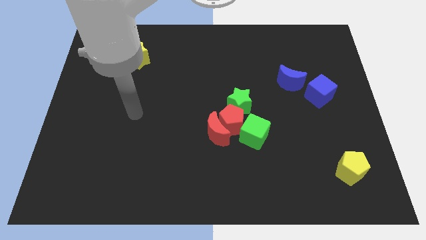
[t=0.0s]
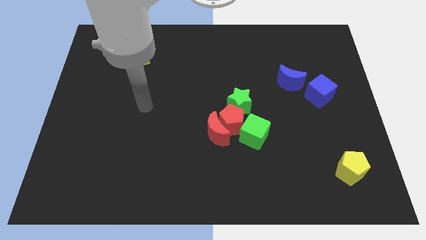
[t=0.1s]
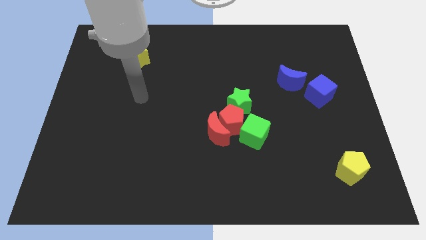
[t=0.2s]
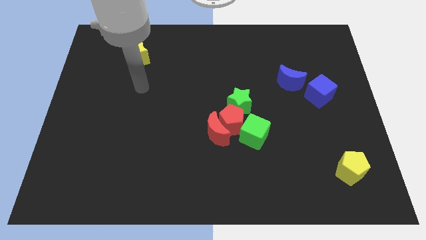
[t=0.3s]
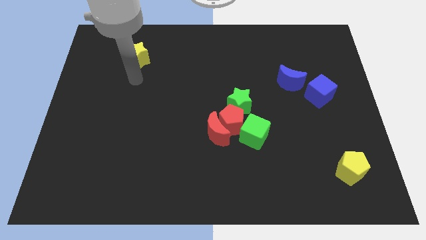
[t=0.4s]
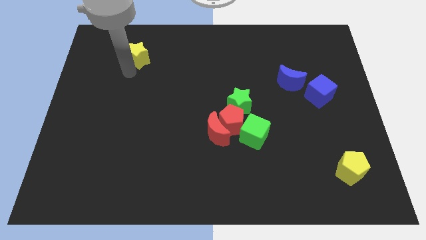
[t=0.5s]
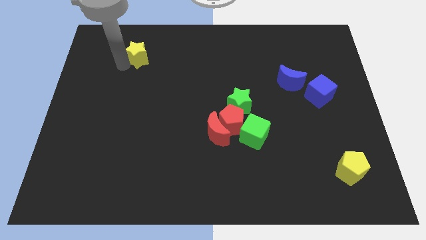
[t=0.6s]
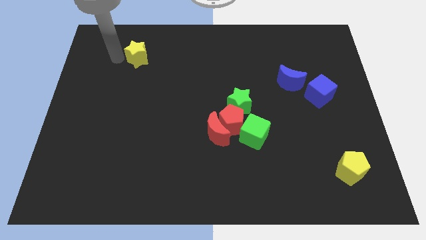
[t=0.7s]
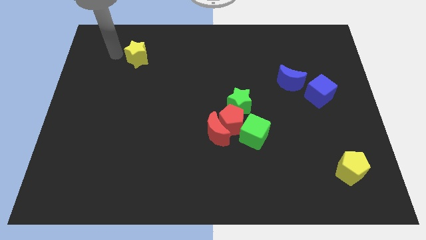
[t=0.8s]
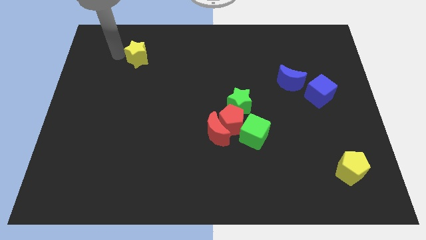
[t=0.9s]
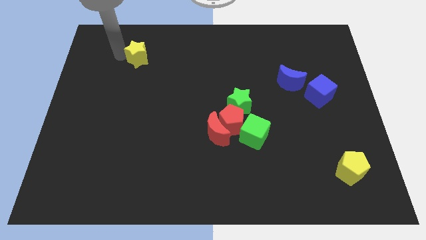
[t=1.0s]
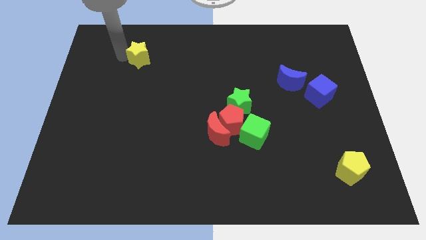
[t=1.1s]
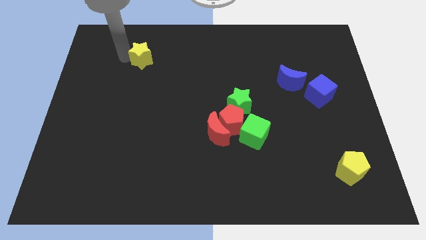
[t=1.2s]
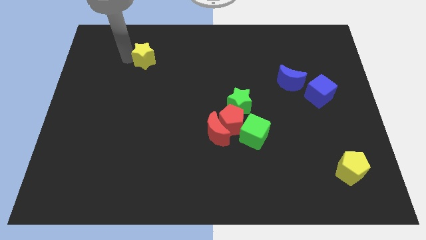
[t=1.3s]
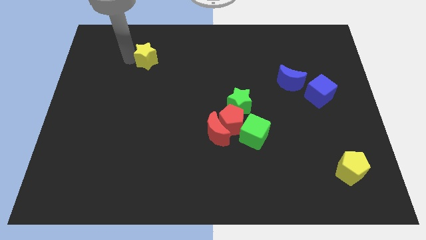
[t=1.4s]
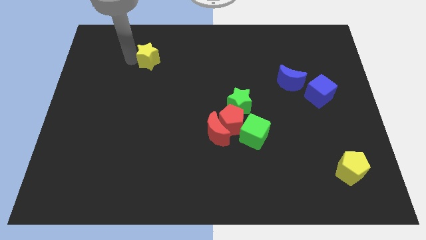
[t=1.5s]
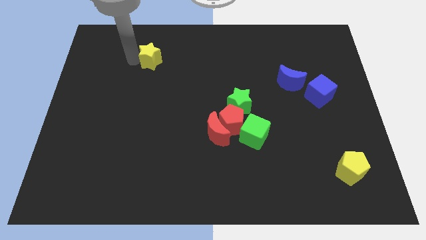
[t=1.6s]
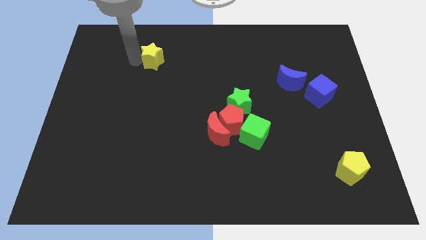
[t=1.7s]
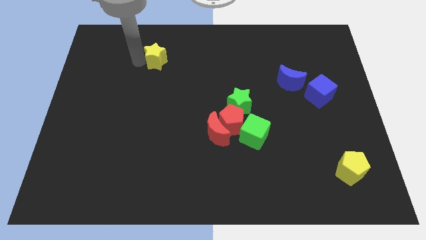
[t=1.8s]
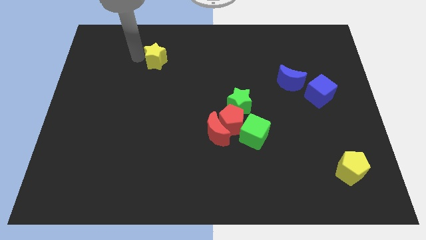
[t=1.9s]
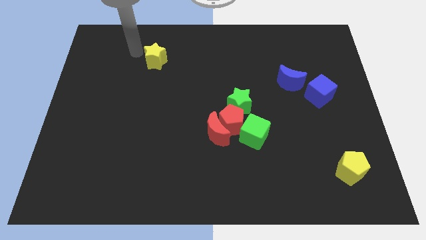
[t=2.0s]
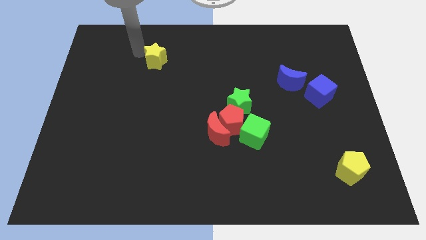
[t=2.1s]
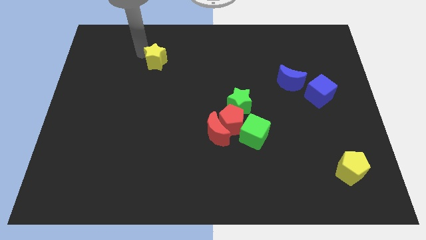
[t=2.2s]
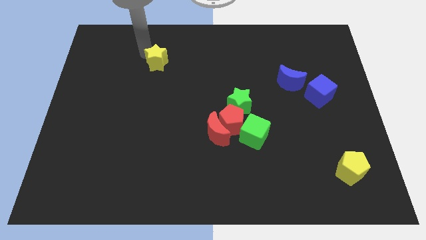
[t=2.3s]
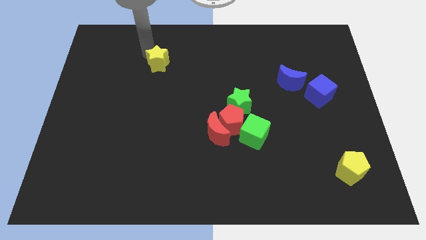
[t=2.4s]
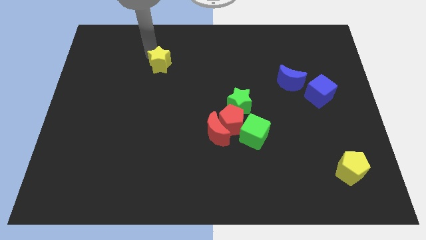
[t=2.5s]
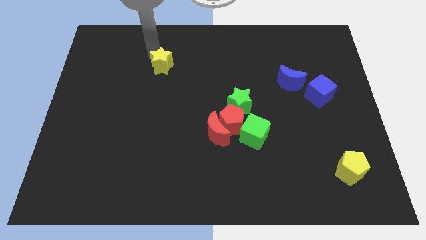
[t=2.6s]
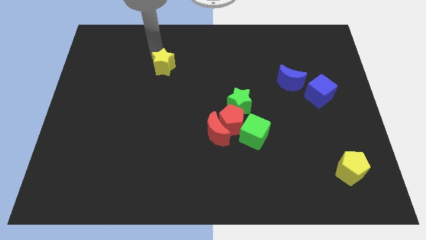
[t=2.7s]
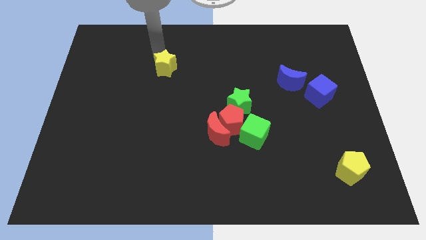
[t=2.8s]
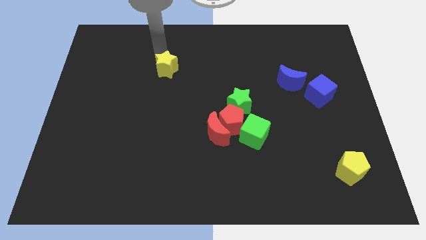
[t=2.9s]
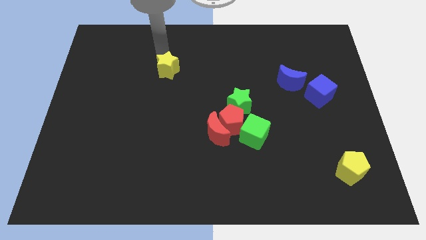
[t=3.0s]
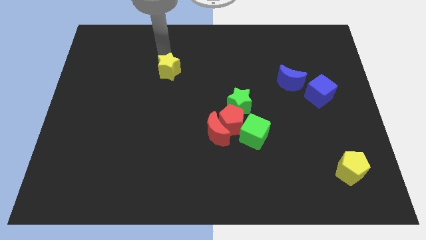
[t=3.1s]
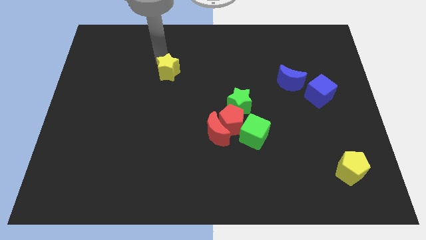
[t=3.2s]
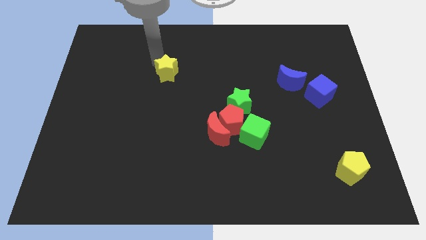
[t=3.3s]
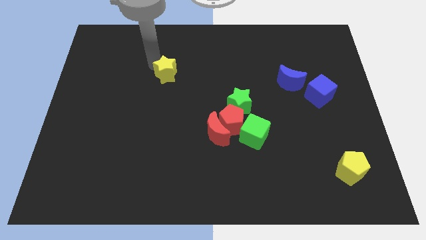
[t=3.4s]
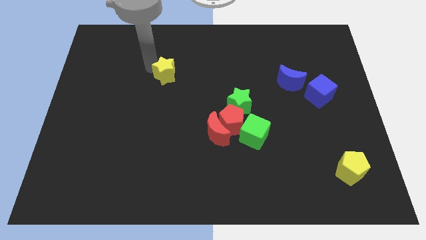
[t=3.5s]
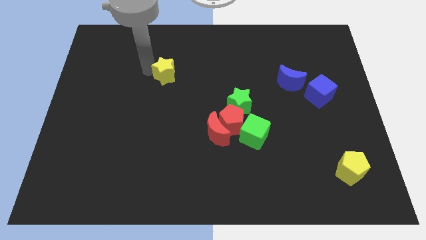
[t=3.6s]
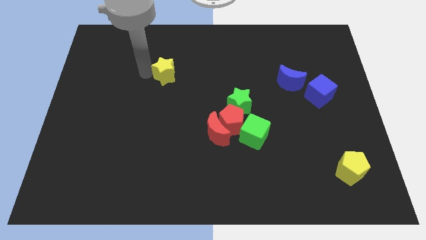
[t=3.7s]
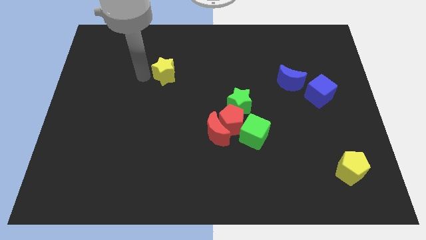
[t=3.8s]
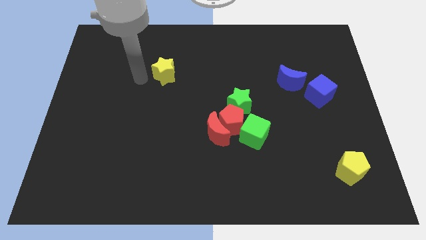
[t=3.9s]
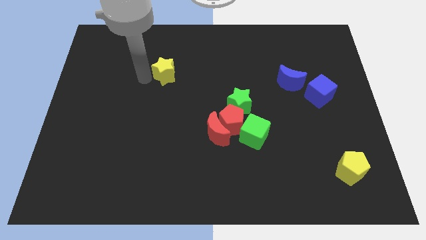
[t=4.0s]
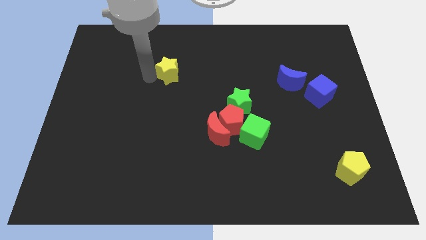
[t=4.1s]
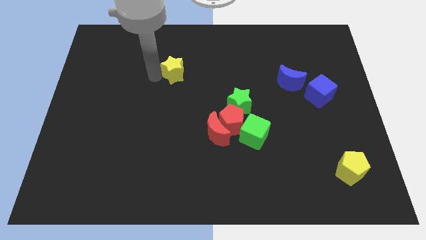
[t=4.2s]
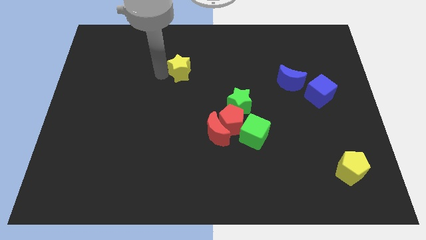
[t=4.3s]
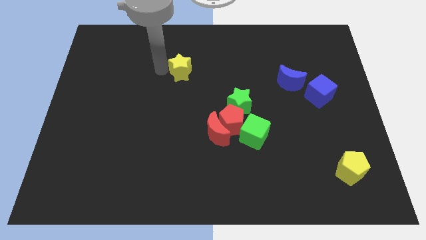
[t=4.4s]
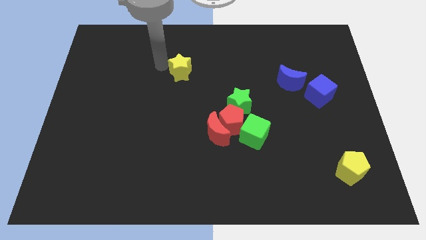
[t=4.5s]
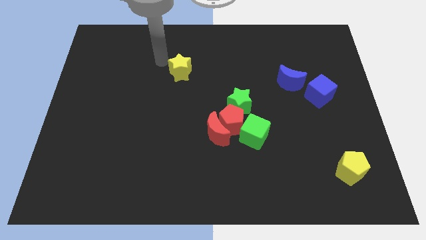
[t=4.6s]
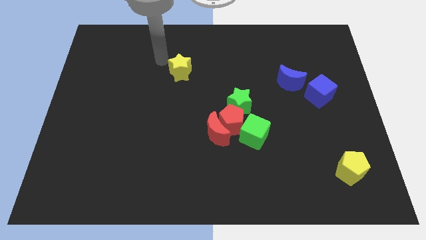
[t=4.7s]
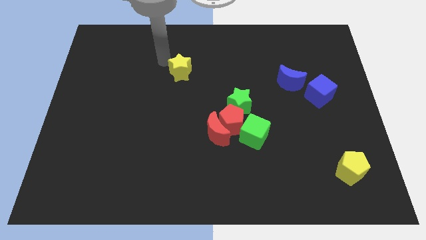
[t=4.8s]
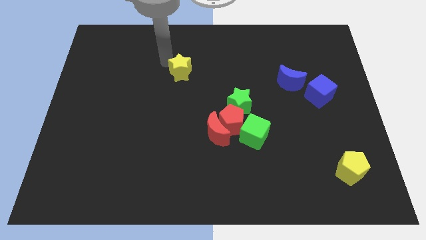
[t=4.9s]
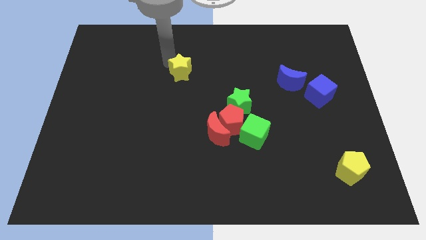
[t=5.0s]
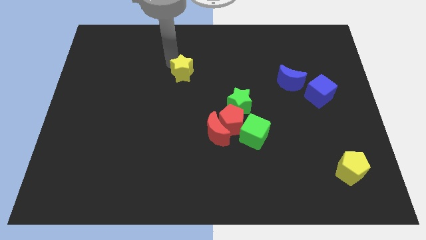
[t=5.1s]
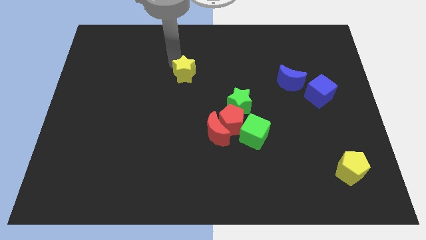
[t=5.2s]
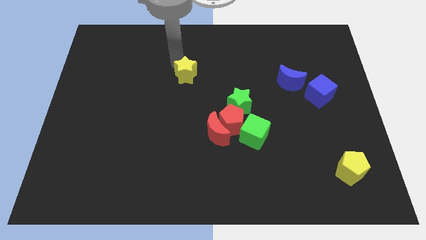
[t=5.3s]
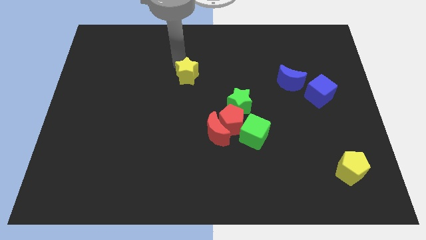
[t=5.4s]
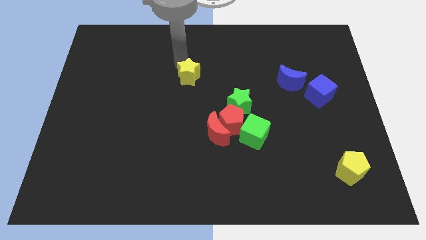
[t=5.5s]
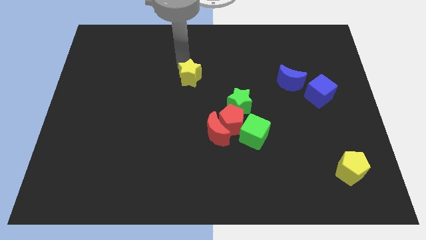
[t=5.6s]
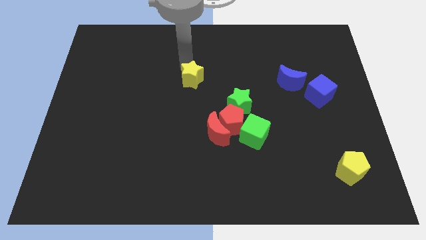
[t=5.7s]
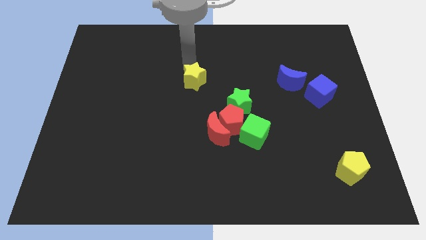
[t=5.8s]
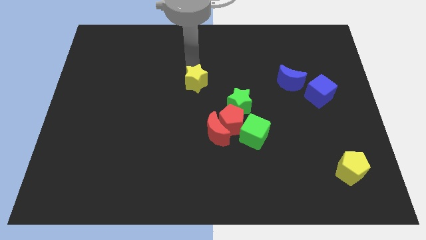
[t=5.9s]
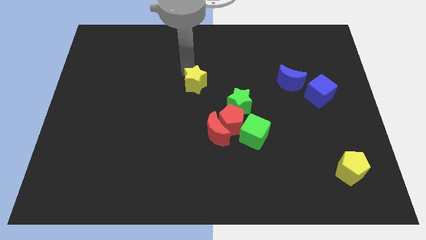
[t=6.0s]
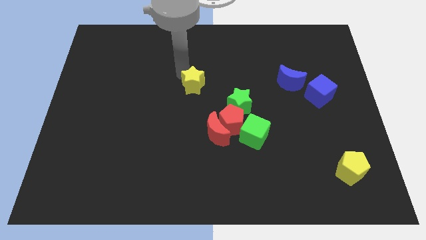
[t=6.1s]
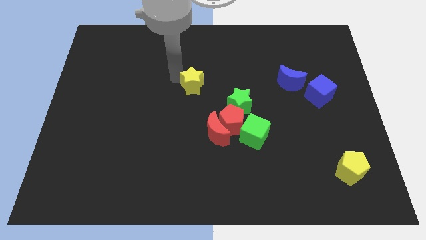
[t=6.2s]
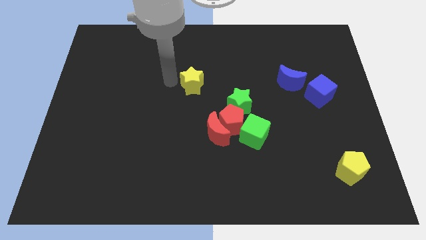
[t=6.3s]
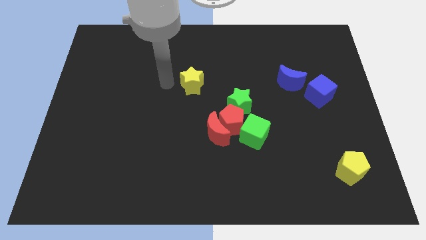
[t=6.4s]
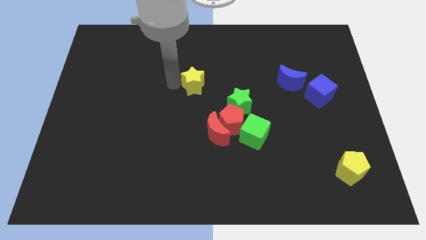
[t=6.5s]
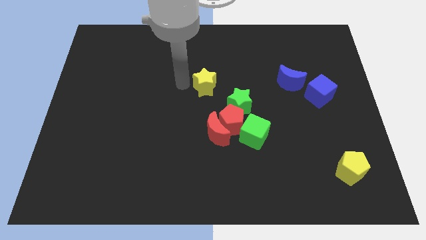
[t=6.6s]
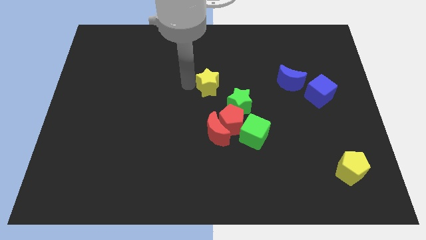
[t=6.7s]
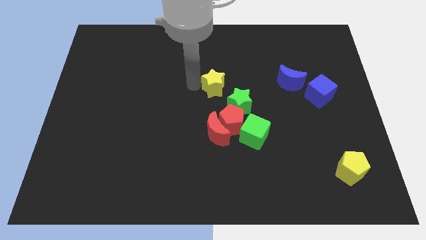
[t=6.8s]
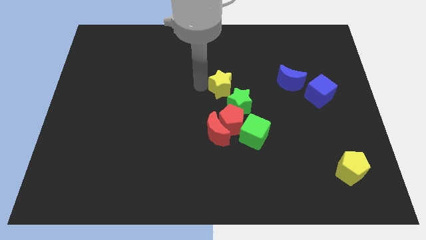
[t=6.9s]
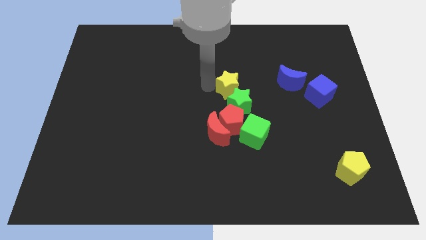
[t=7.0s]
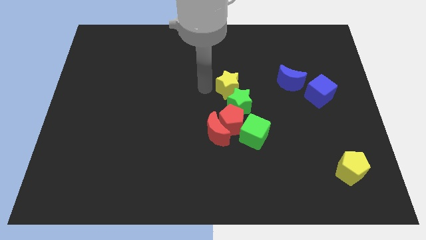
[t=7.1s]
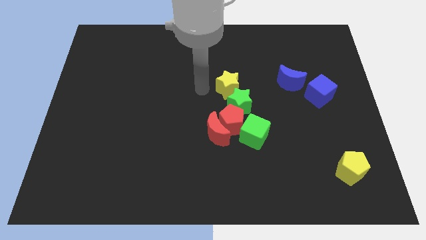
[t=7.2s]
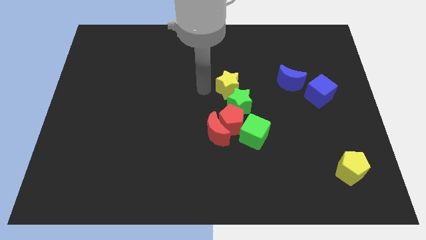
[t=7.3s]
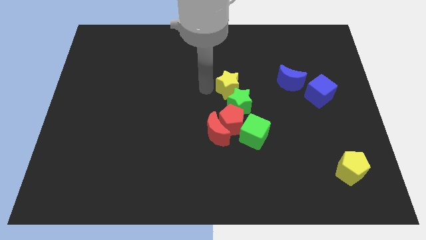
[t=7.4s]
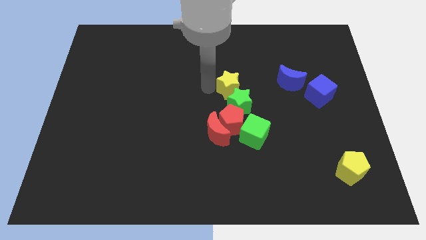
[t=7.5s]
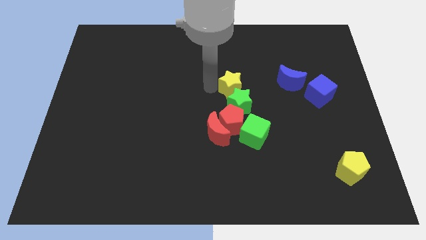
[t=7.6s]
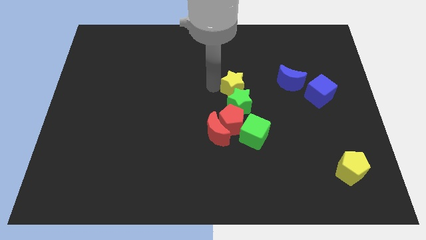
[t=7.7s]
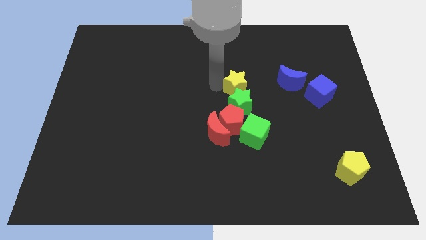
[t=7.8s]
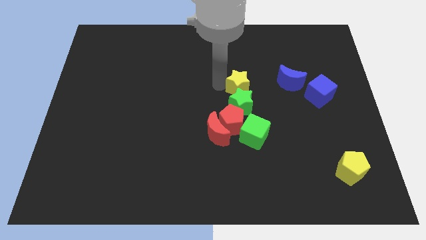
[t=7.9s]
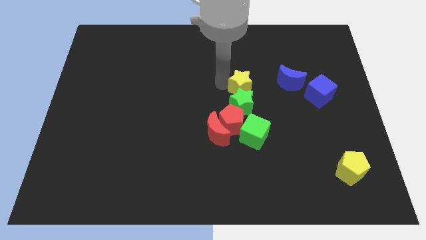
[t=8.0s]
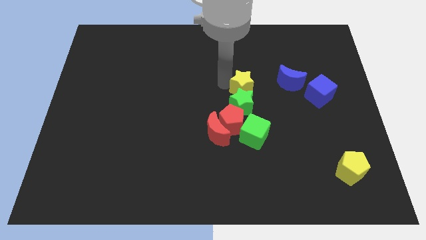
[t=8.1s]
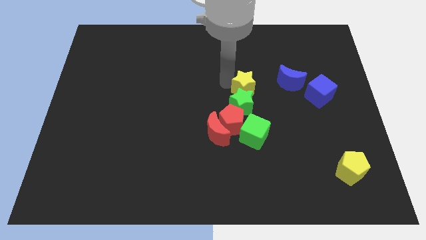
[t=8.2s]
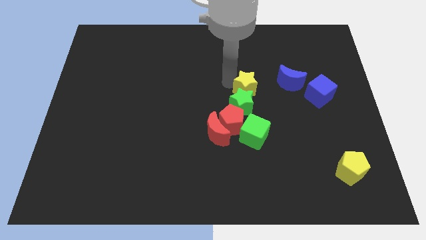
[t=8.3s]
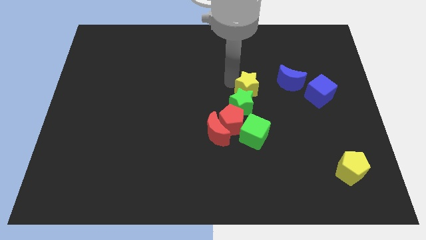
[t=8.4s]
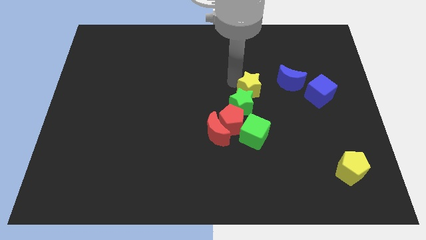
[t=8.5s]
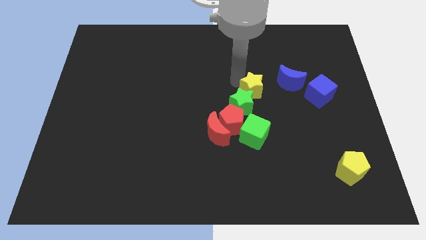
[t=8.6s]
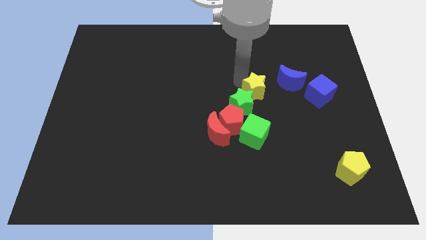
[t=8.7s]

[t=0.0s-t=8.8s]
move the yellow star left of the blue cube
